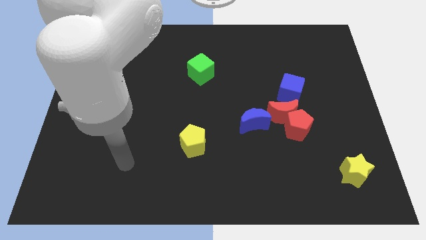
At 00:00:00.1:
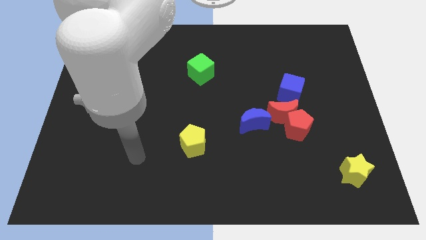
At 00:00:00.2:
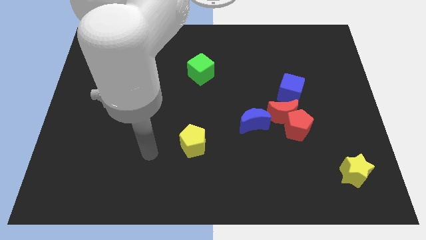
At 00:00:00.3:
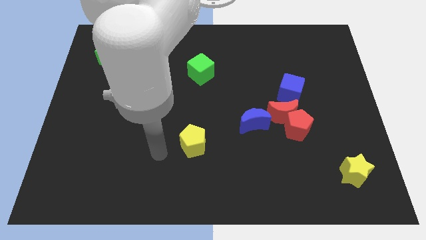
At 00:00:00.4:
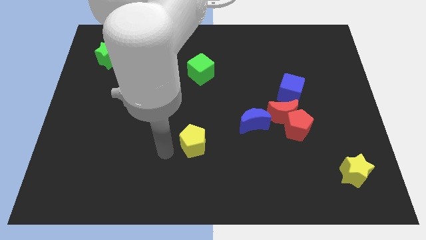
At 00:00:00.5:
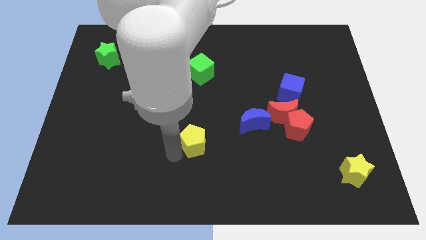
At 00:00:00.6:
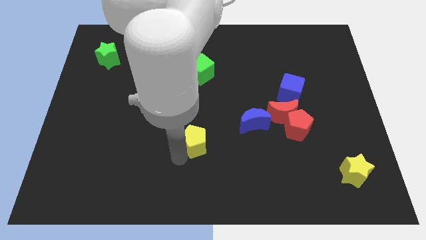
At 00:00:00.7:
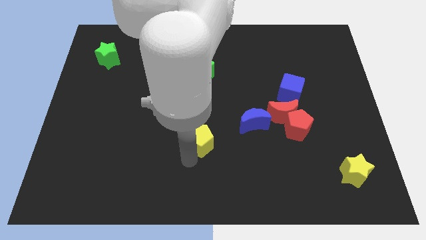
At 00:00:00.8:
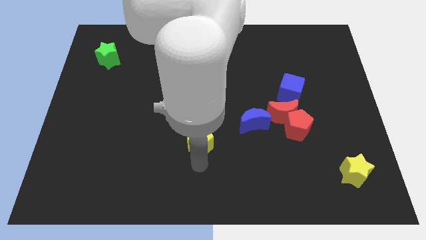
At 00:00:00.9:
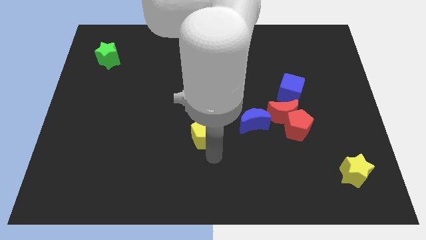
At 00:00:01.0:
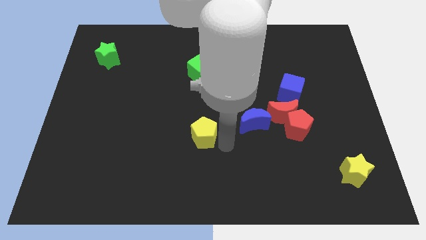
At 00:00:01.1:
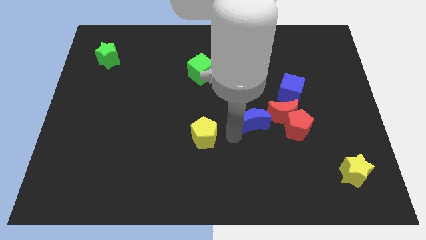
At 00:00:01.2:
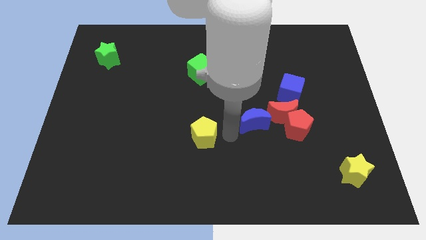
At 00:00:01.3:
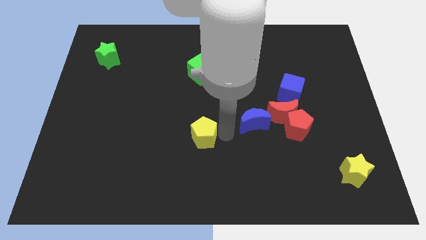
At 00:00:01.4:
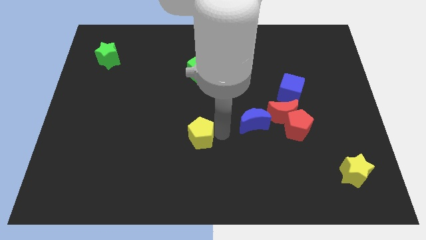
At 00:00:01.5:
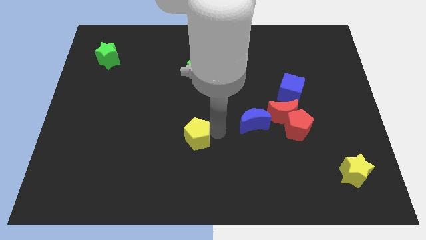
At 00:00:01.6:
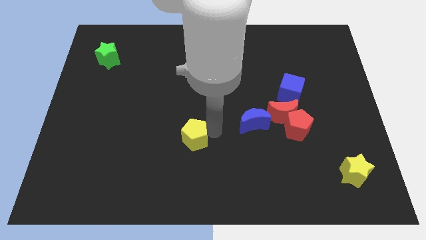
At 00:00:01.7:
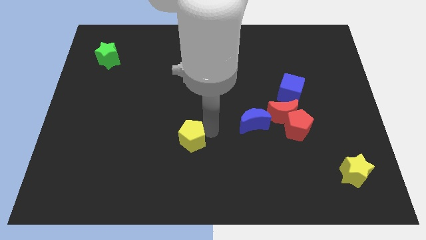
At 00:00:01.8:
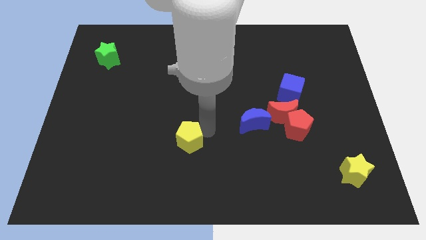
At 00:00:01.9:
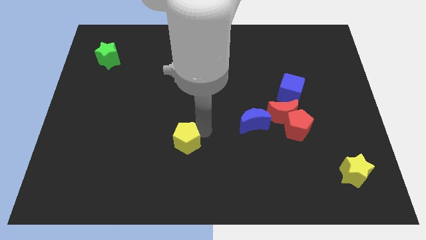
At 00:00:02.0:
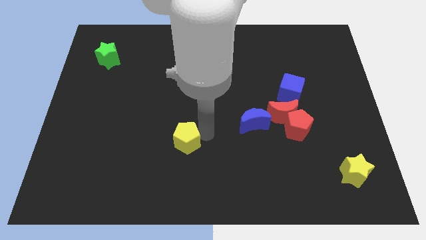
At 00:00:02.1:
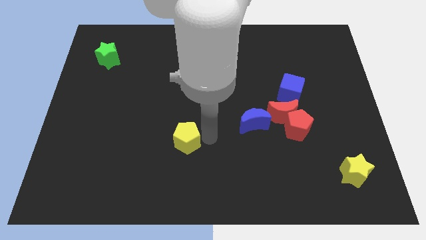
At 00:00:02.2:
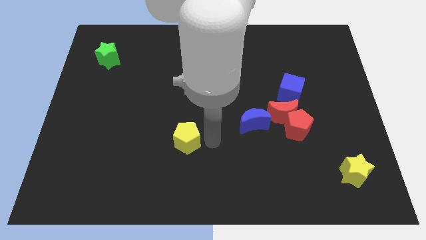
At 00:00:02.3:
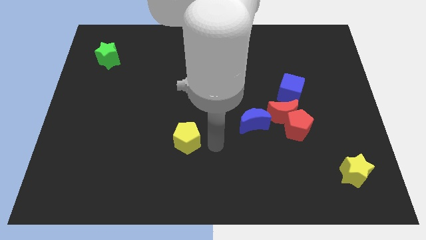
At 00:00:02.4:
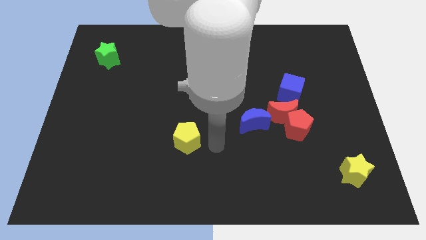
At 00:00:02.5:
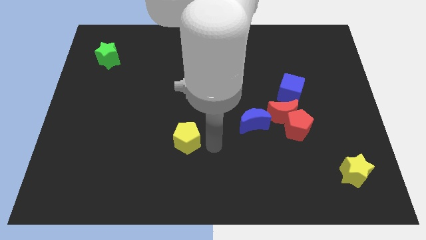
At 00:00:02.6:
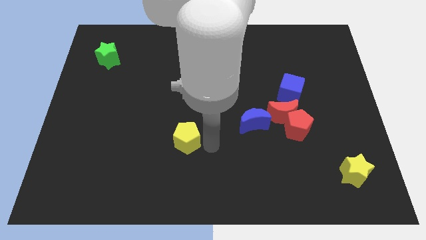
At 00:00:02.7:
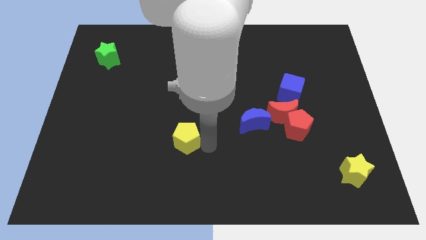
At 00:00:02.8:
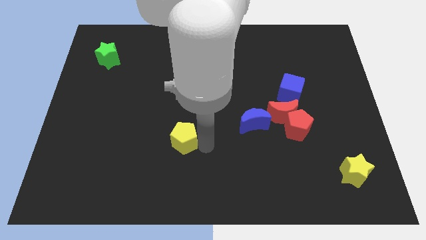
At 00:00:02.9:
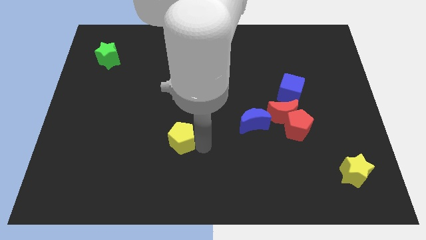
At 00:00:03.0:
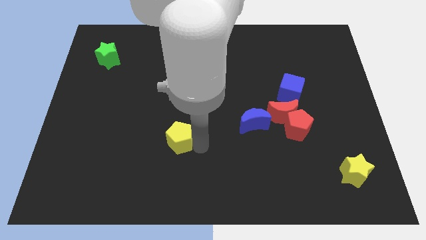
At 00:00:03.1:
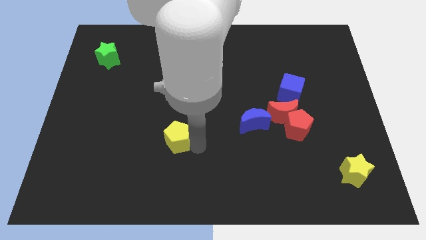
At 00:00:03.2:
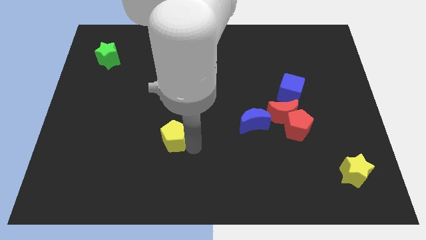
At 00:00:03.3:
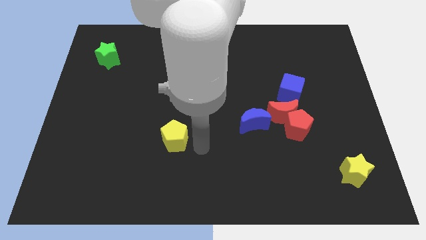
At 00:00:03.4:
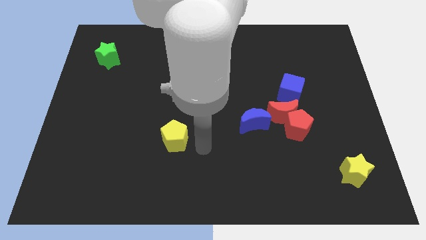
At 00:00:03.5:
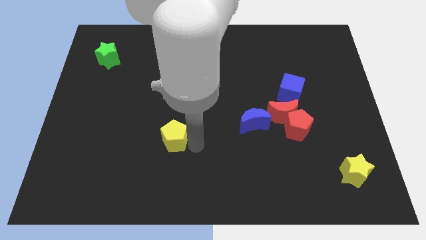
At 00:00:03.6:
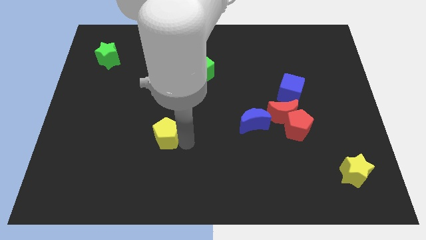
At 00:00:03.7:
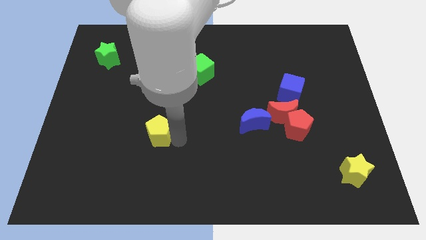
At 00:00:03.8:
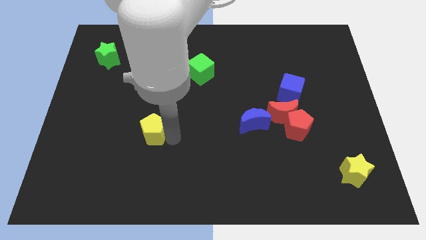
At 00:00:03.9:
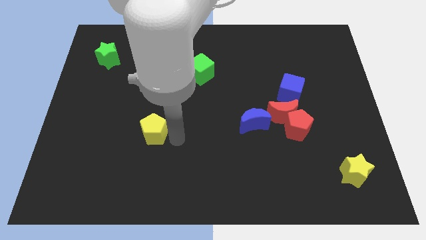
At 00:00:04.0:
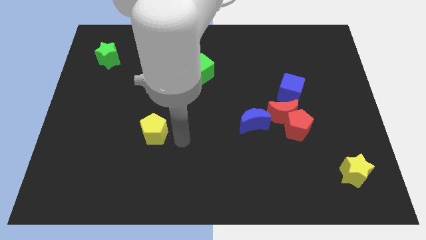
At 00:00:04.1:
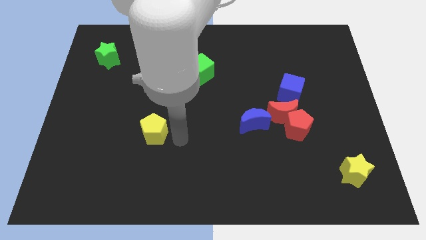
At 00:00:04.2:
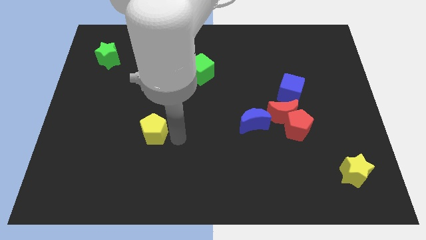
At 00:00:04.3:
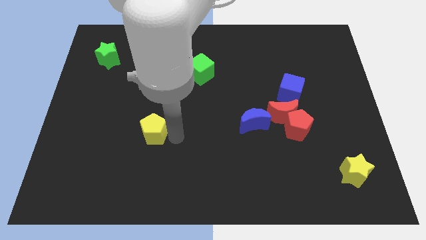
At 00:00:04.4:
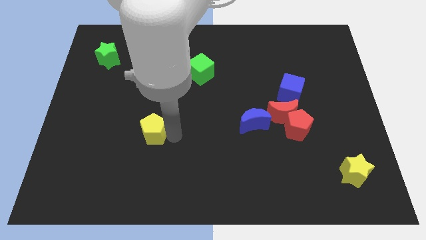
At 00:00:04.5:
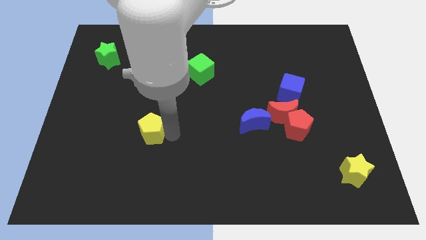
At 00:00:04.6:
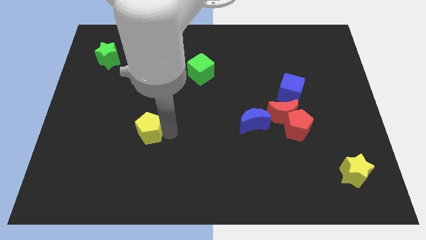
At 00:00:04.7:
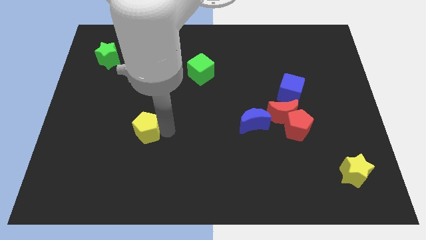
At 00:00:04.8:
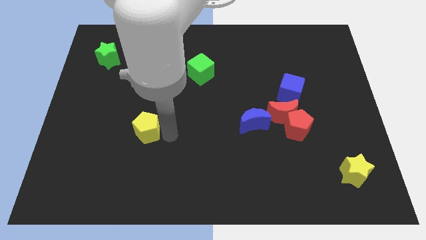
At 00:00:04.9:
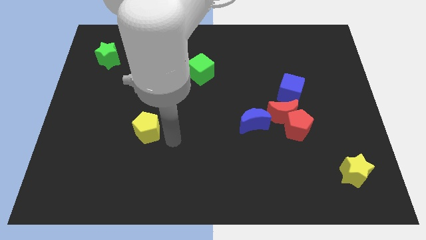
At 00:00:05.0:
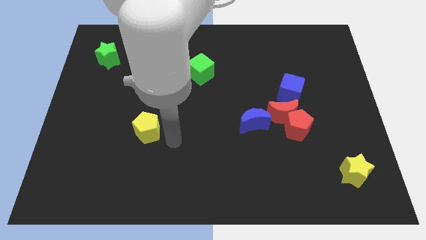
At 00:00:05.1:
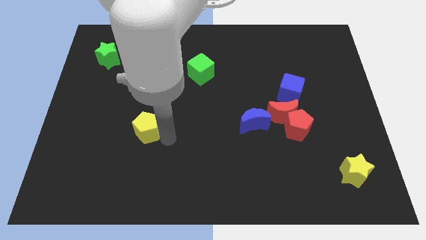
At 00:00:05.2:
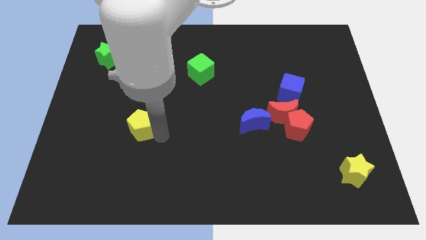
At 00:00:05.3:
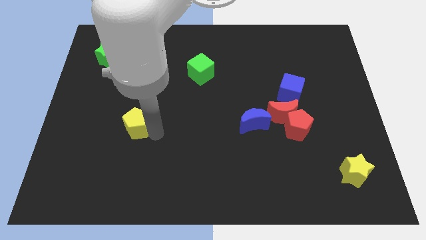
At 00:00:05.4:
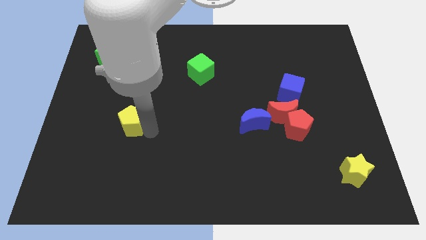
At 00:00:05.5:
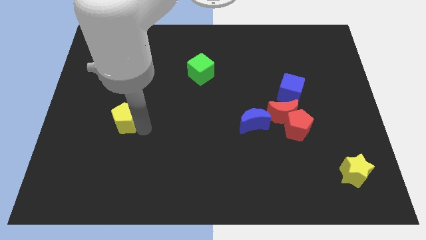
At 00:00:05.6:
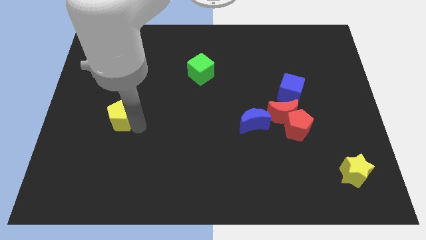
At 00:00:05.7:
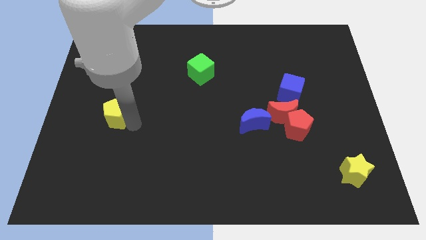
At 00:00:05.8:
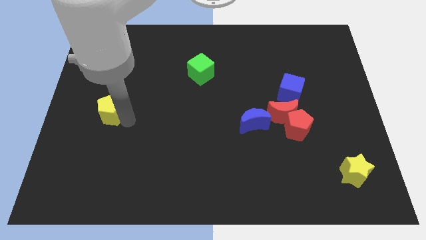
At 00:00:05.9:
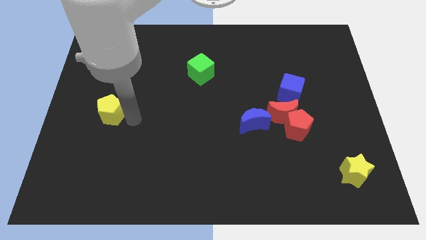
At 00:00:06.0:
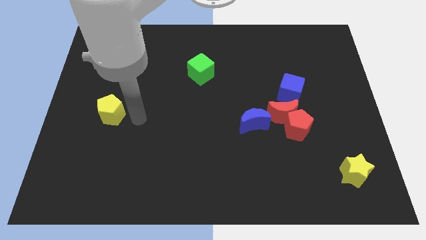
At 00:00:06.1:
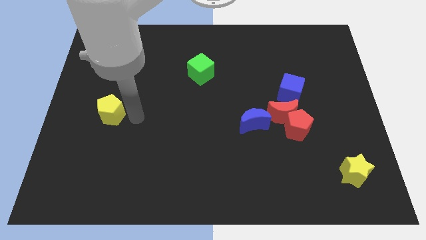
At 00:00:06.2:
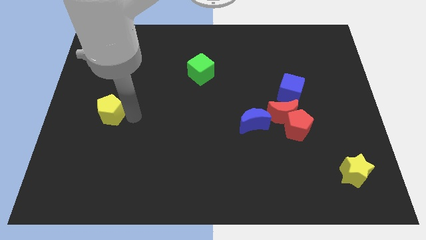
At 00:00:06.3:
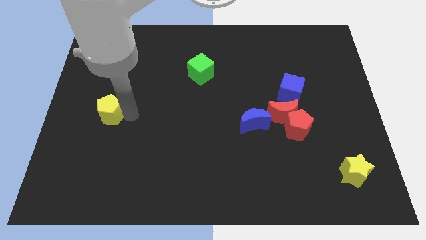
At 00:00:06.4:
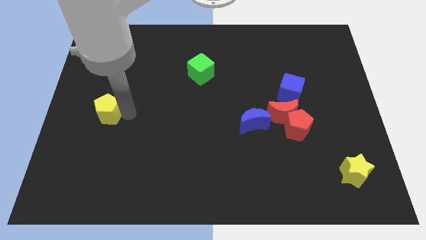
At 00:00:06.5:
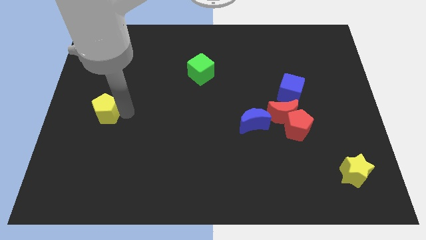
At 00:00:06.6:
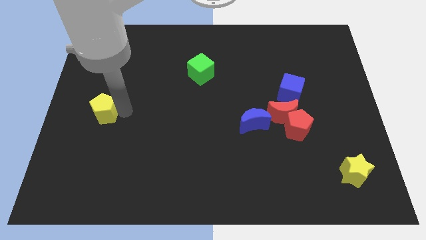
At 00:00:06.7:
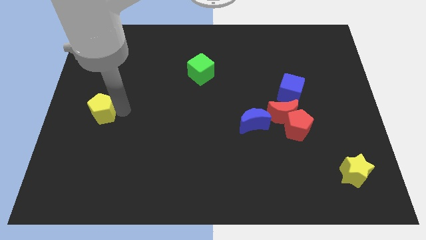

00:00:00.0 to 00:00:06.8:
move the yellow pentagon to the center left
